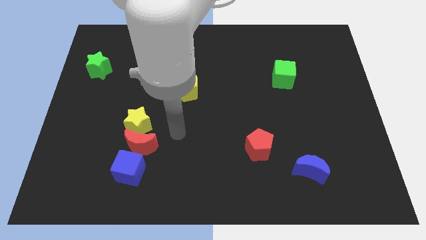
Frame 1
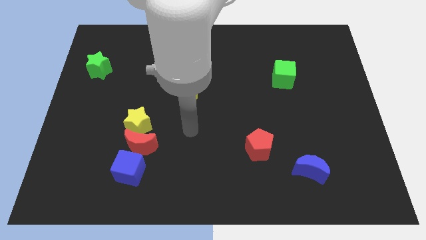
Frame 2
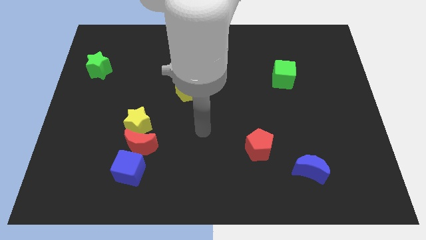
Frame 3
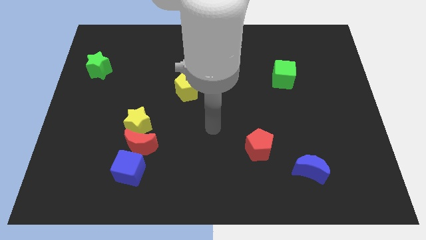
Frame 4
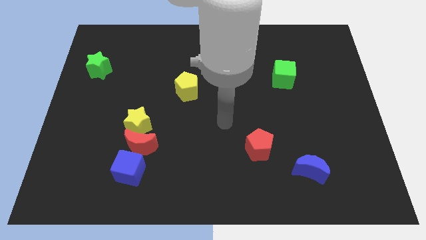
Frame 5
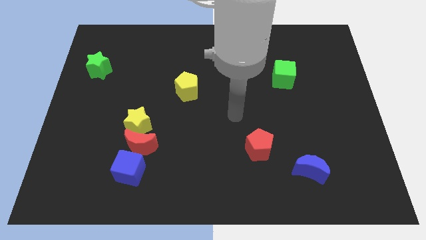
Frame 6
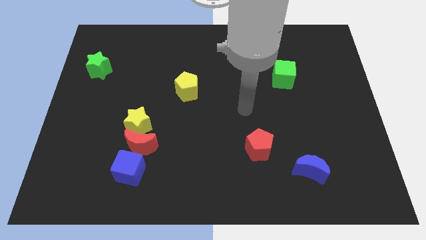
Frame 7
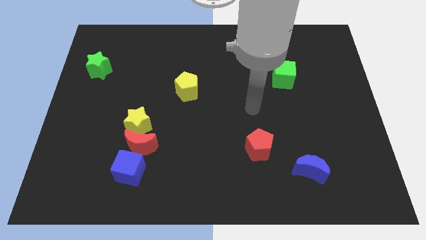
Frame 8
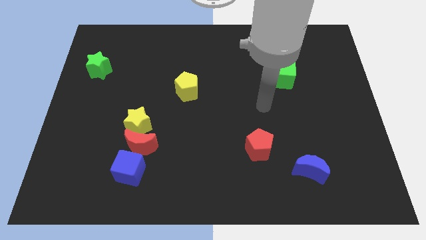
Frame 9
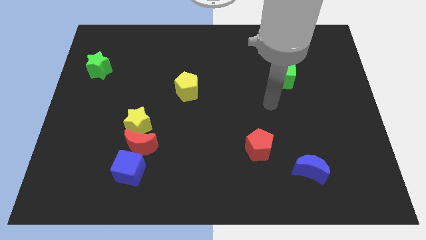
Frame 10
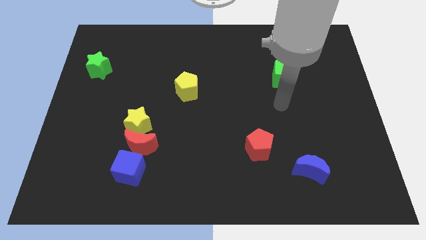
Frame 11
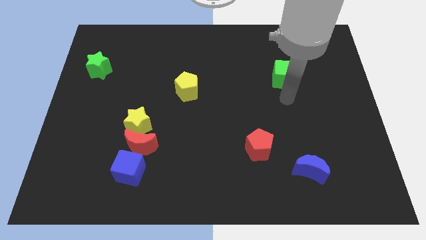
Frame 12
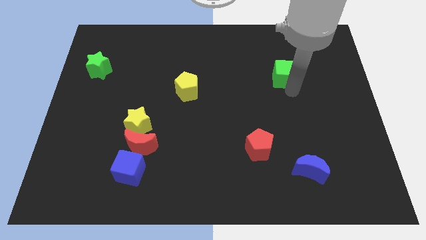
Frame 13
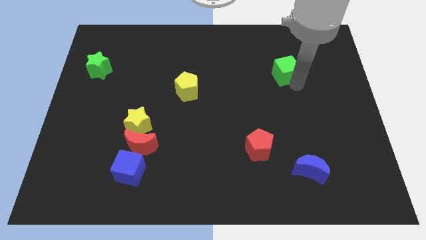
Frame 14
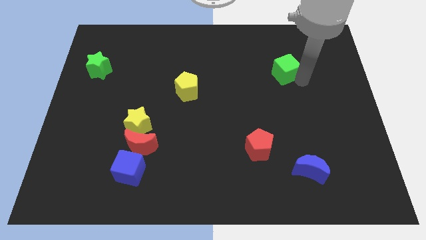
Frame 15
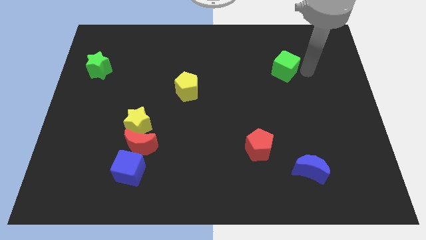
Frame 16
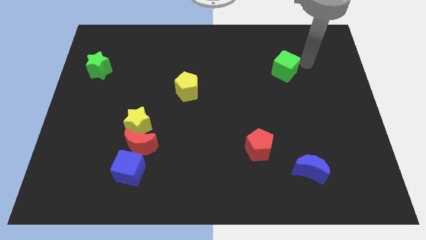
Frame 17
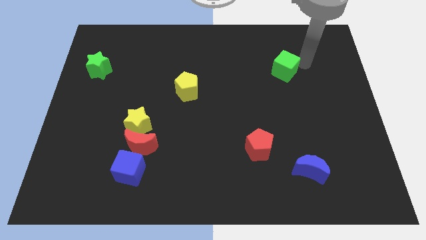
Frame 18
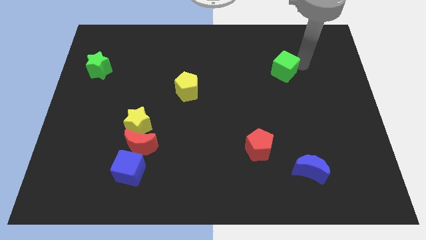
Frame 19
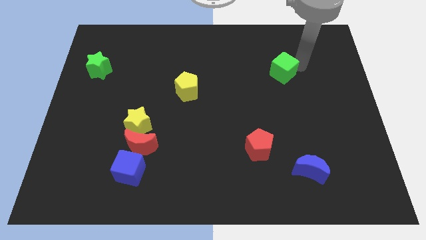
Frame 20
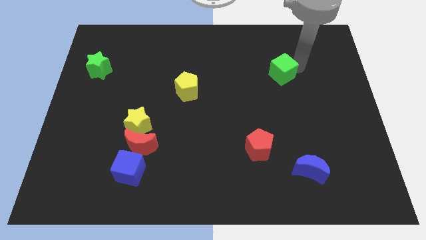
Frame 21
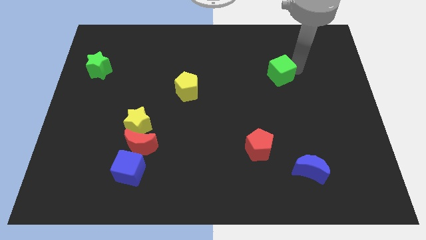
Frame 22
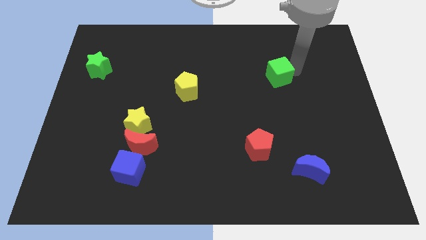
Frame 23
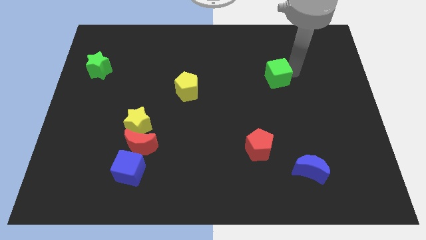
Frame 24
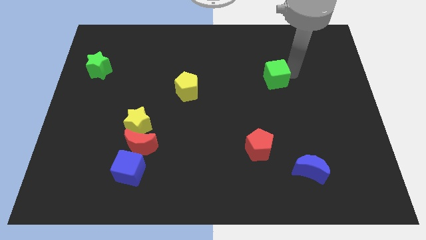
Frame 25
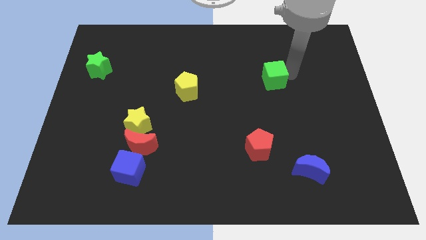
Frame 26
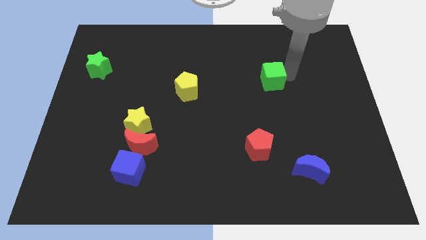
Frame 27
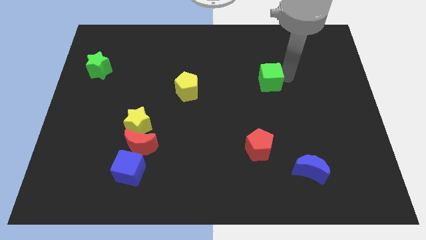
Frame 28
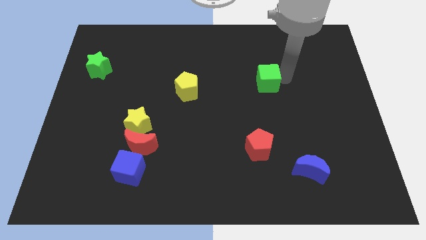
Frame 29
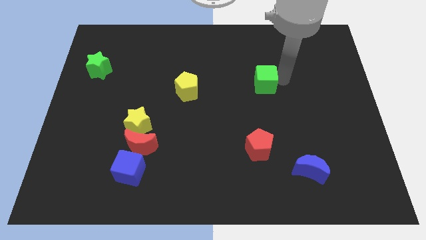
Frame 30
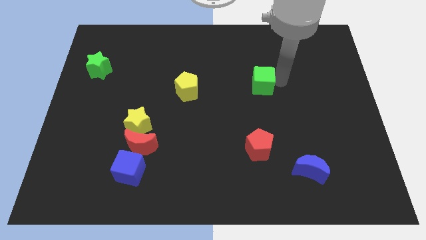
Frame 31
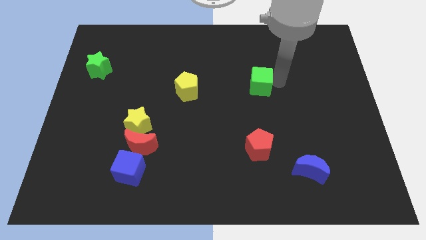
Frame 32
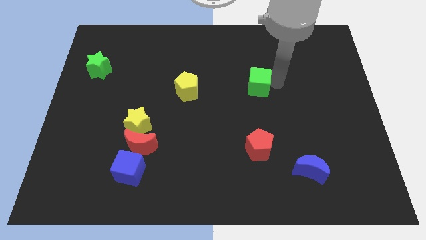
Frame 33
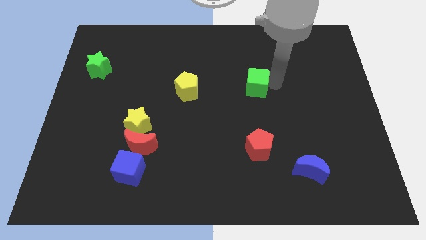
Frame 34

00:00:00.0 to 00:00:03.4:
slightly push the green cube to the left

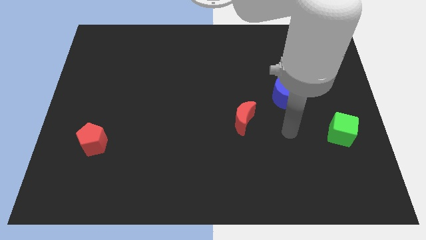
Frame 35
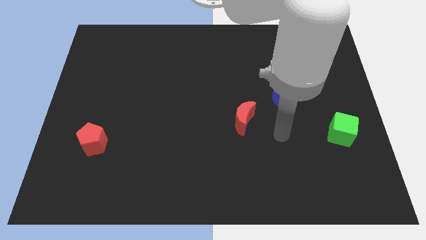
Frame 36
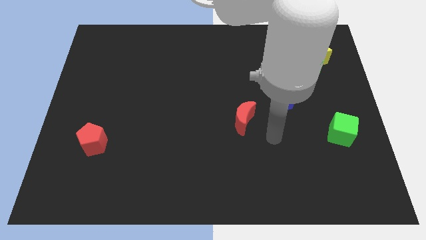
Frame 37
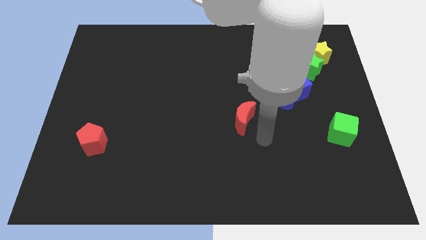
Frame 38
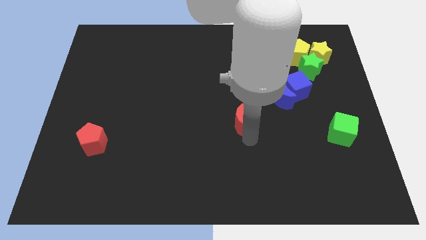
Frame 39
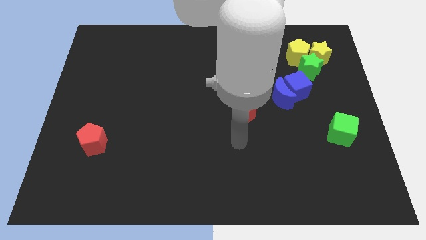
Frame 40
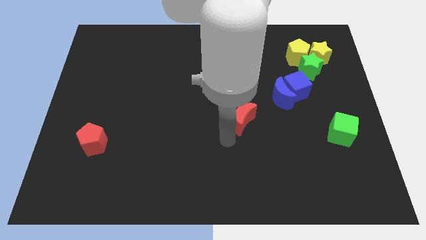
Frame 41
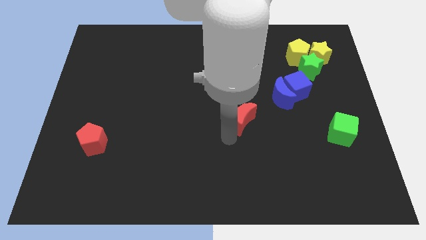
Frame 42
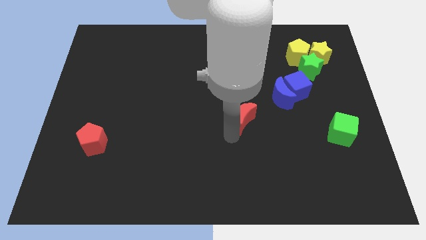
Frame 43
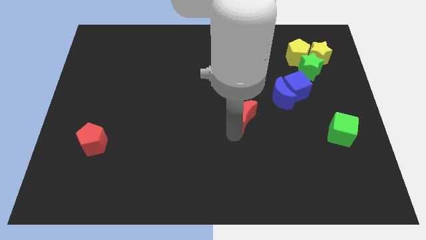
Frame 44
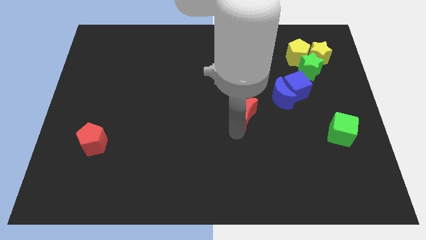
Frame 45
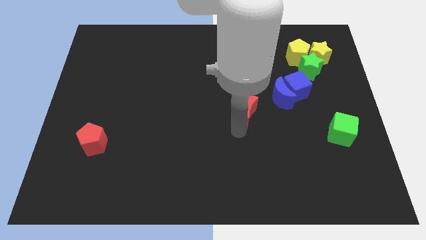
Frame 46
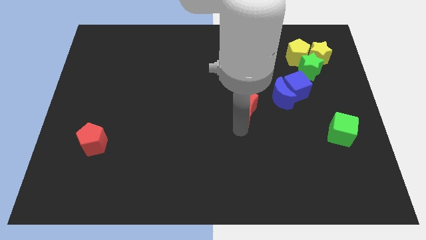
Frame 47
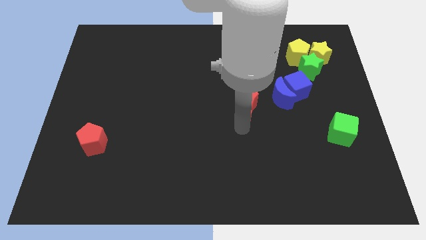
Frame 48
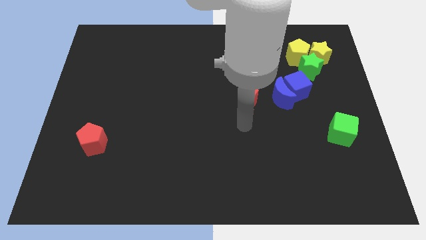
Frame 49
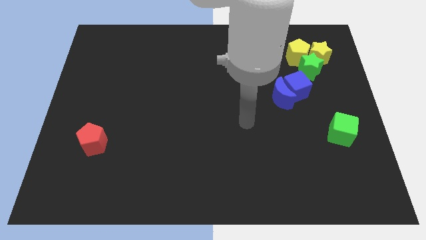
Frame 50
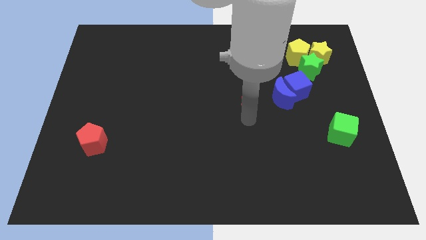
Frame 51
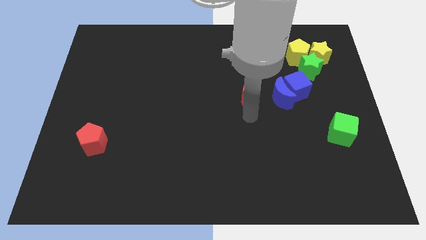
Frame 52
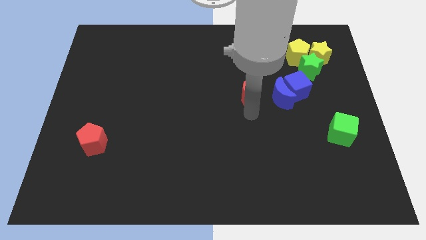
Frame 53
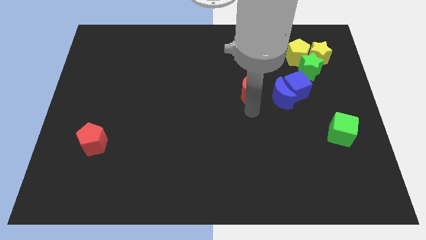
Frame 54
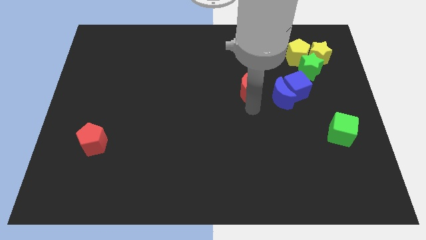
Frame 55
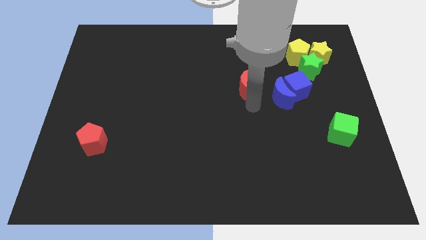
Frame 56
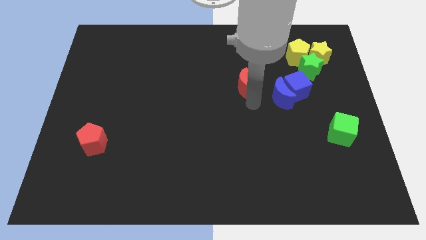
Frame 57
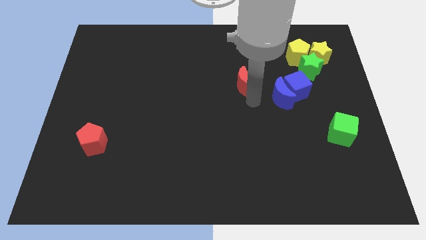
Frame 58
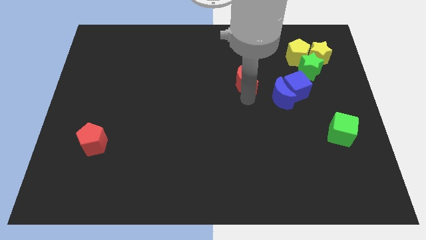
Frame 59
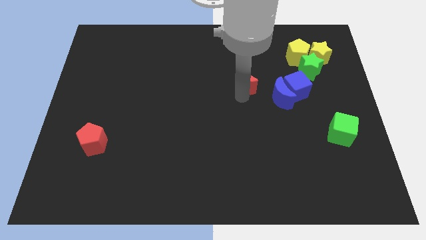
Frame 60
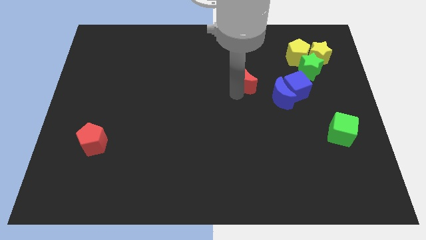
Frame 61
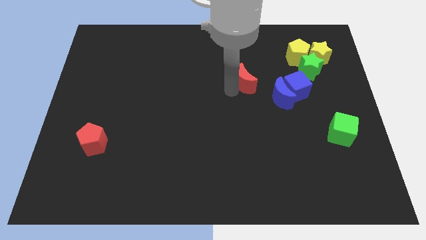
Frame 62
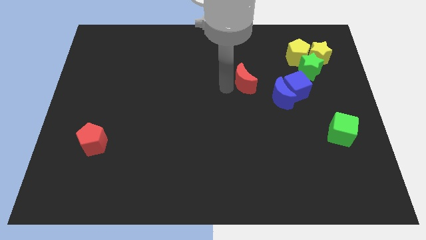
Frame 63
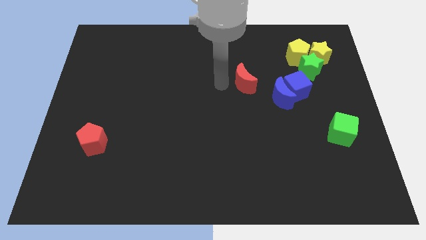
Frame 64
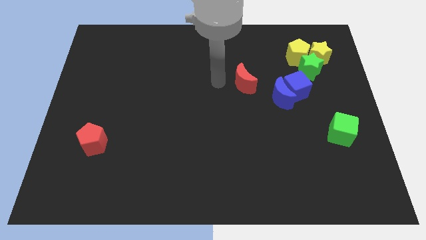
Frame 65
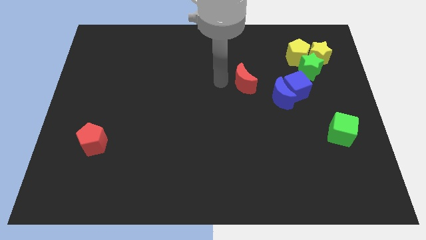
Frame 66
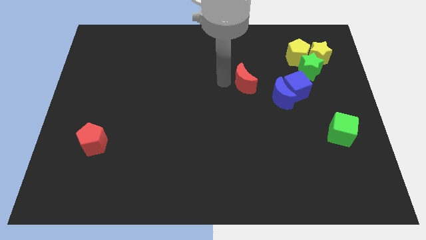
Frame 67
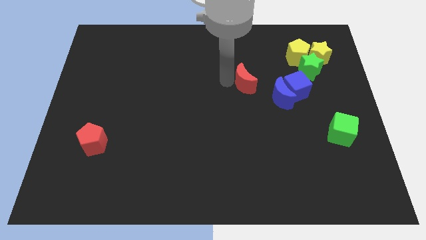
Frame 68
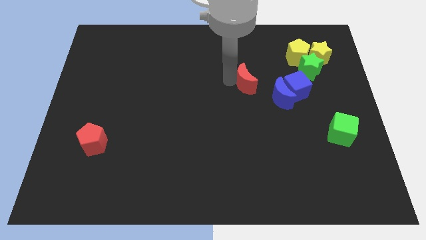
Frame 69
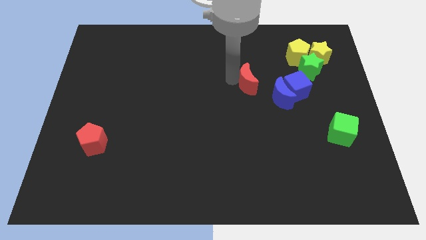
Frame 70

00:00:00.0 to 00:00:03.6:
slightly push the red moon upwards and then to the right

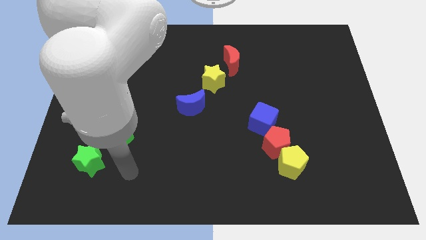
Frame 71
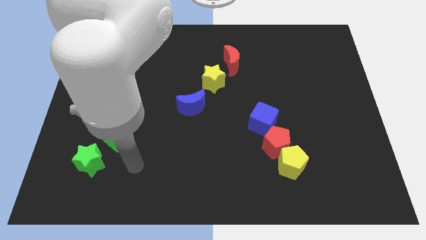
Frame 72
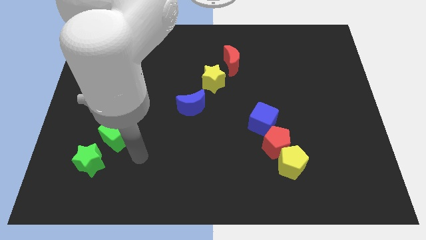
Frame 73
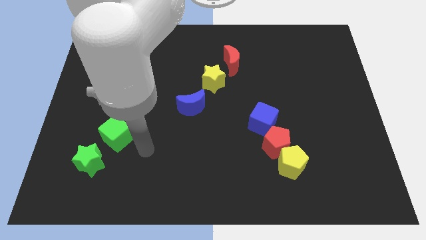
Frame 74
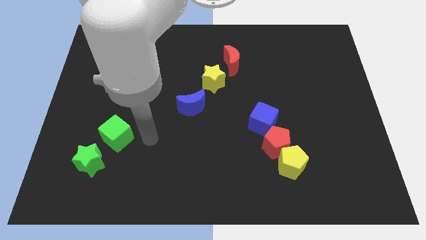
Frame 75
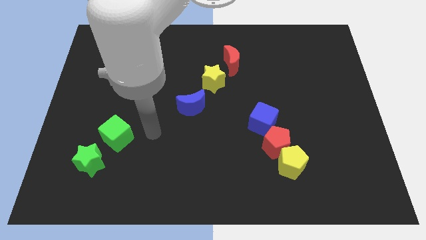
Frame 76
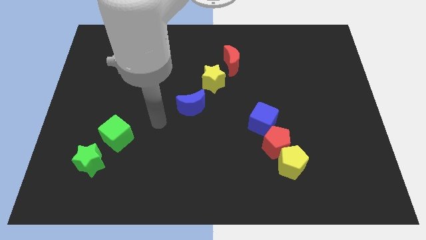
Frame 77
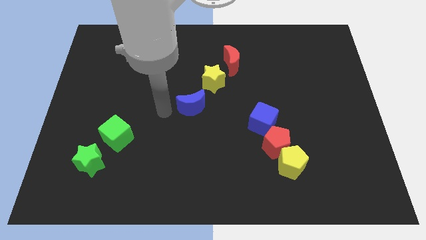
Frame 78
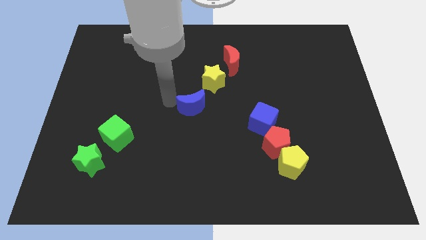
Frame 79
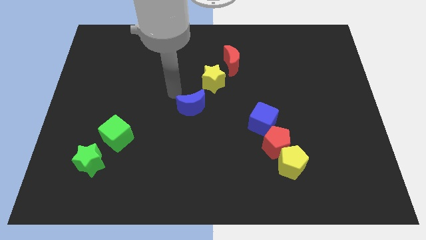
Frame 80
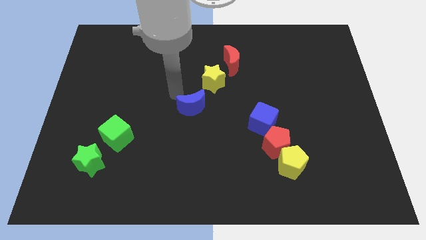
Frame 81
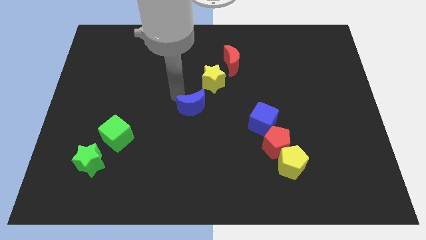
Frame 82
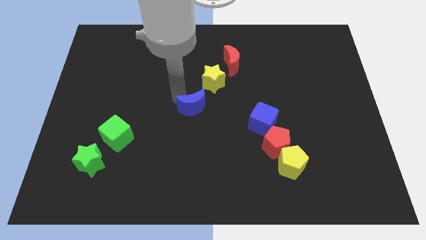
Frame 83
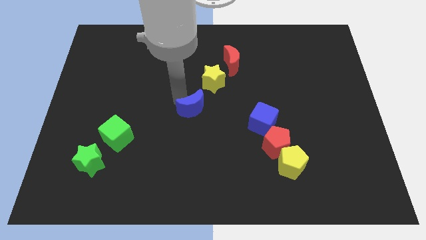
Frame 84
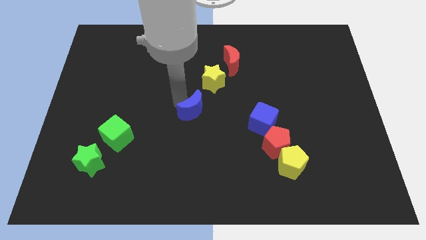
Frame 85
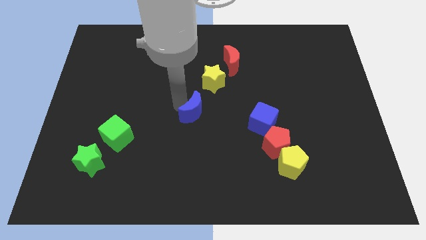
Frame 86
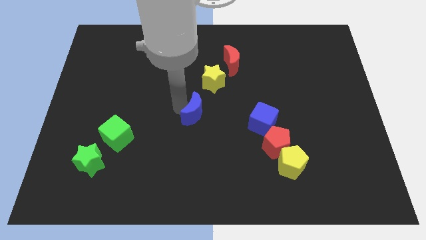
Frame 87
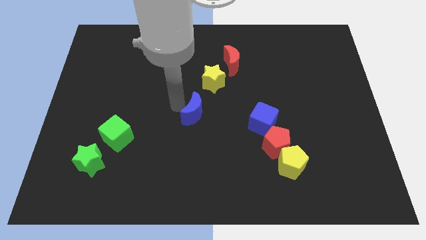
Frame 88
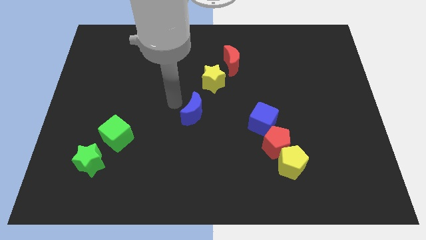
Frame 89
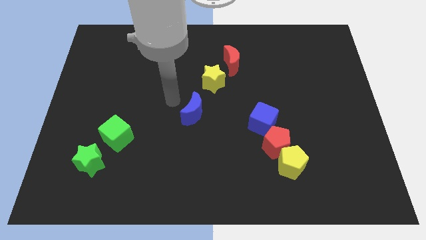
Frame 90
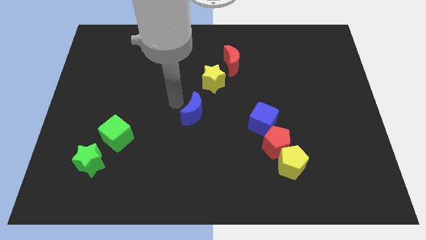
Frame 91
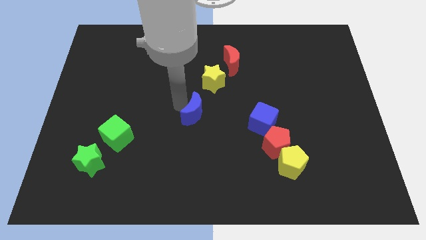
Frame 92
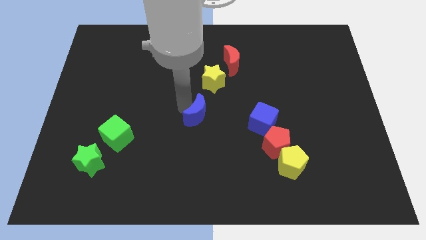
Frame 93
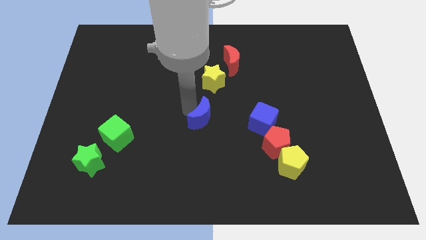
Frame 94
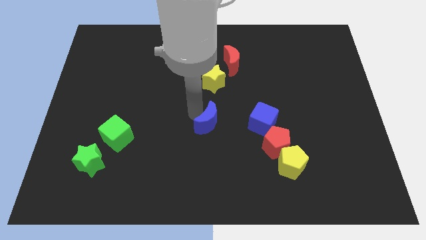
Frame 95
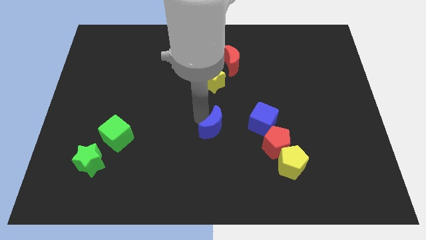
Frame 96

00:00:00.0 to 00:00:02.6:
move the blue moon a bit downwards and to the right
